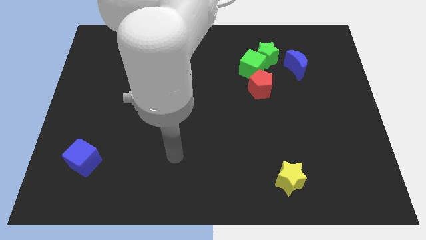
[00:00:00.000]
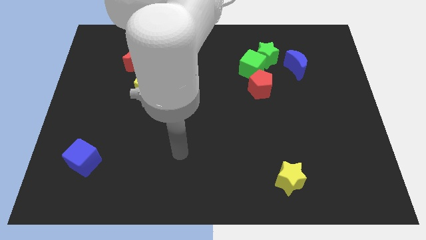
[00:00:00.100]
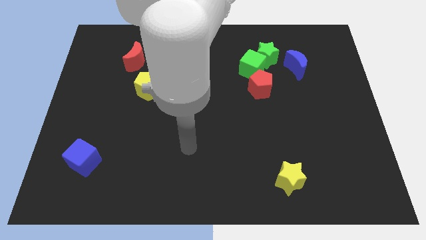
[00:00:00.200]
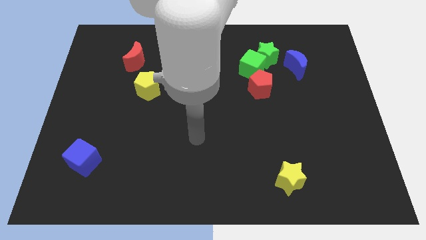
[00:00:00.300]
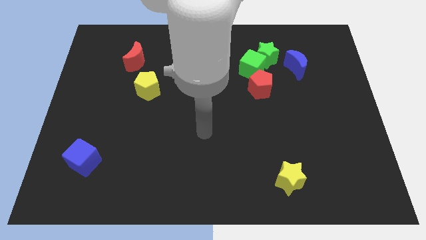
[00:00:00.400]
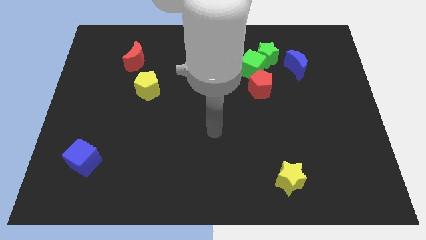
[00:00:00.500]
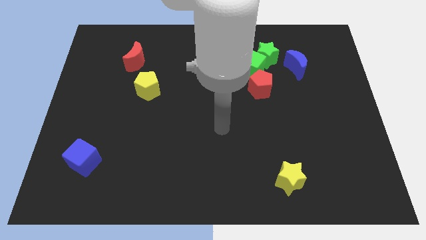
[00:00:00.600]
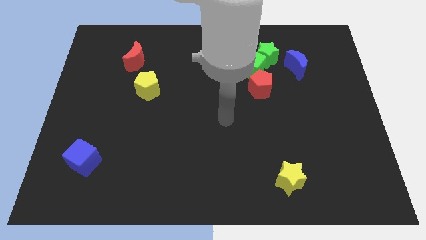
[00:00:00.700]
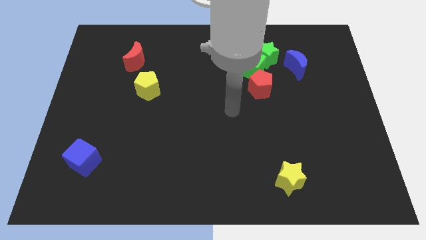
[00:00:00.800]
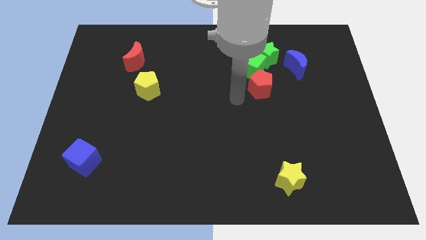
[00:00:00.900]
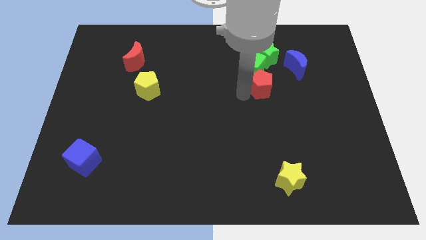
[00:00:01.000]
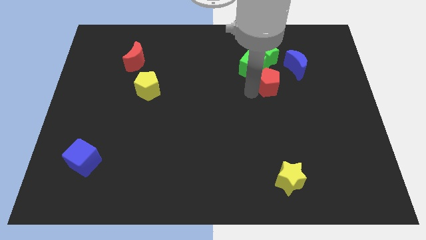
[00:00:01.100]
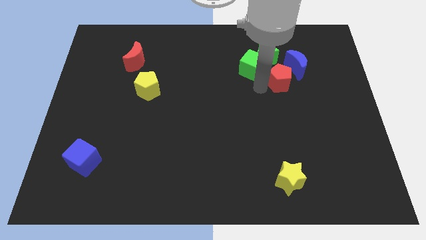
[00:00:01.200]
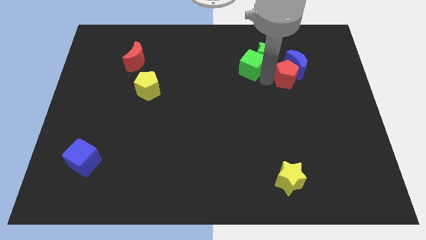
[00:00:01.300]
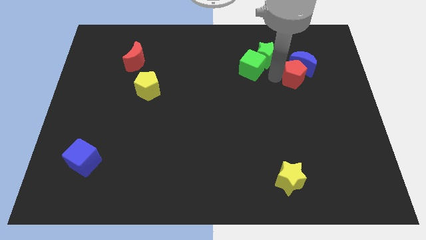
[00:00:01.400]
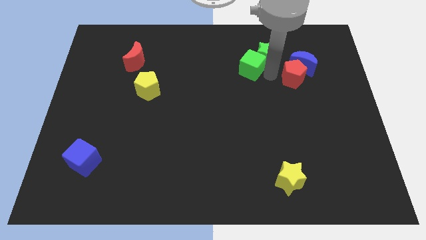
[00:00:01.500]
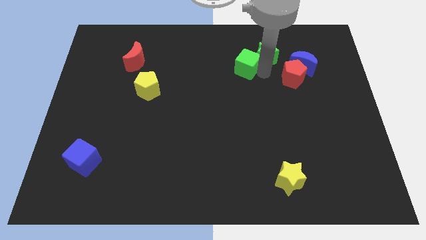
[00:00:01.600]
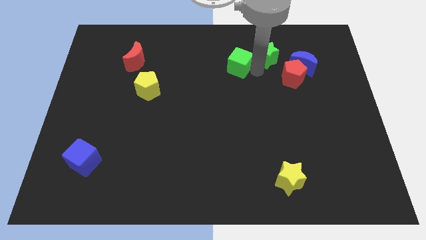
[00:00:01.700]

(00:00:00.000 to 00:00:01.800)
pull the green cube apart from the green star and red pentagon

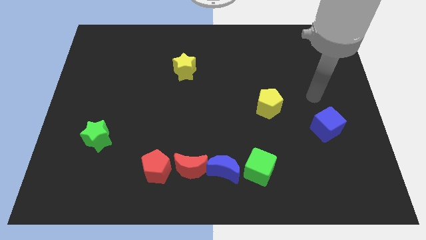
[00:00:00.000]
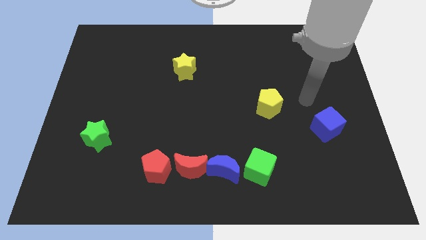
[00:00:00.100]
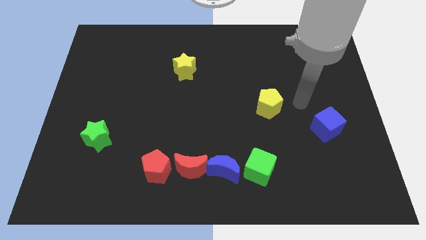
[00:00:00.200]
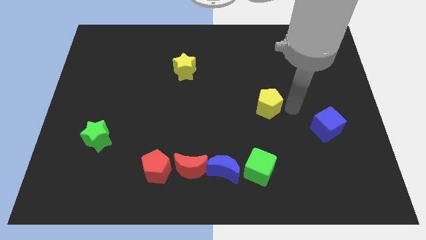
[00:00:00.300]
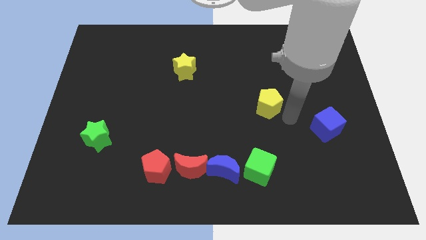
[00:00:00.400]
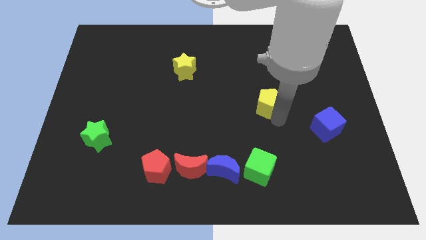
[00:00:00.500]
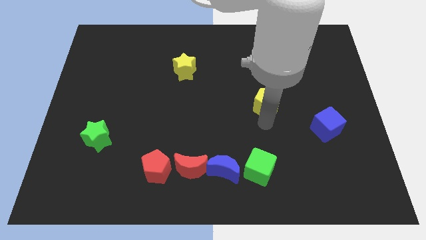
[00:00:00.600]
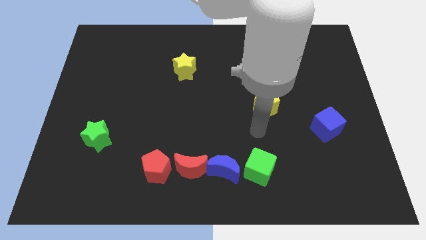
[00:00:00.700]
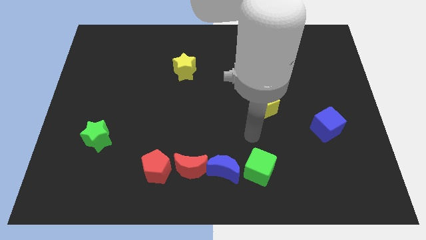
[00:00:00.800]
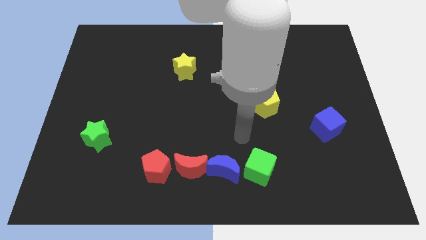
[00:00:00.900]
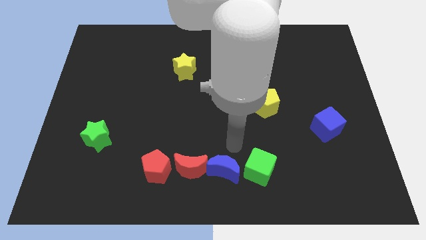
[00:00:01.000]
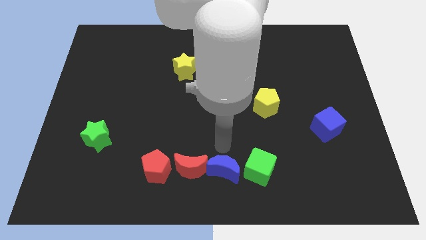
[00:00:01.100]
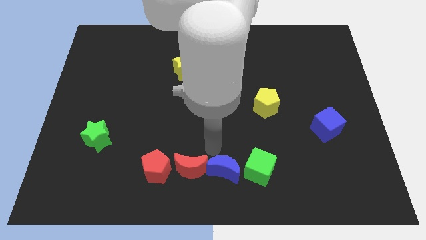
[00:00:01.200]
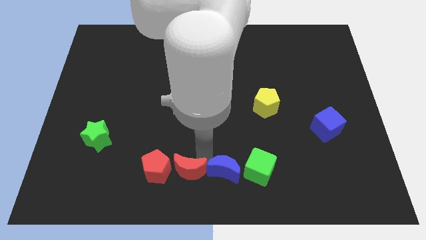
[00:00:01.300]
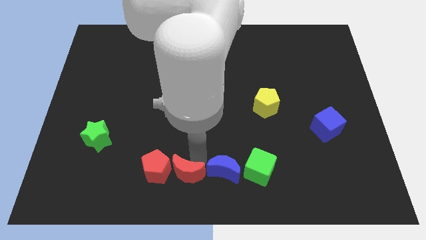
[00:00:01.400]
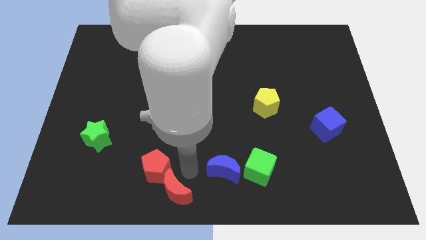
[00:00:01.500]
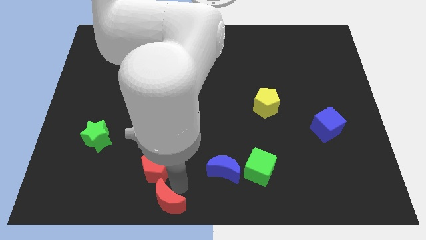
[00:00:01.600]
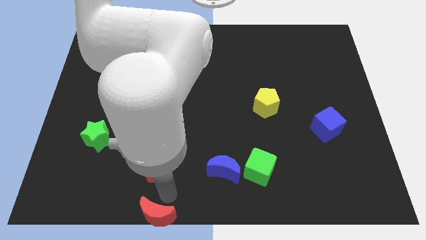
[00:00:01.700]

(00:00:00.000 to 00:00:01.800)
pull the red pentagon apart from the red moon

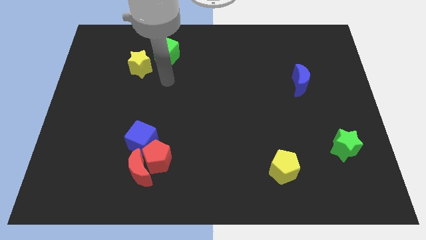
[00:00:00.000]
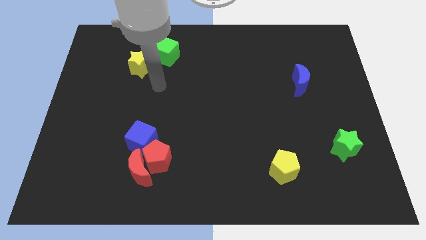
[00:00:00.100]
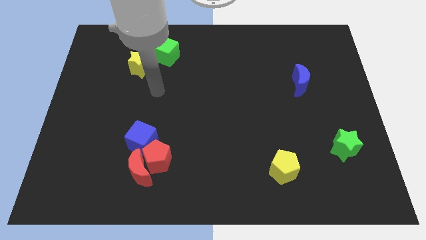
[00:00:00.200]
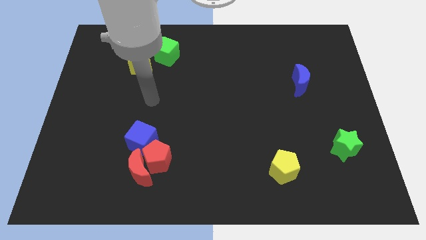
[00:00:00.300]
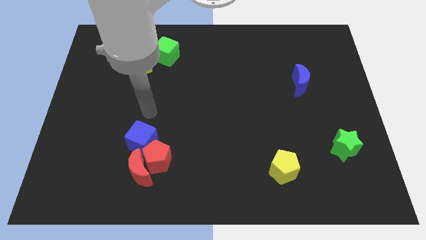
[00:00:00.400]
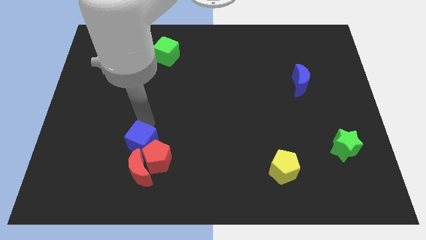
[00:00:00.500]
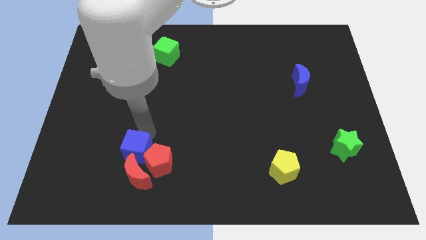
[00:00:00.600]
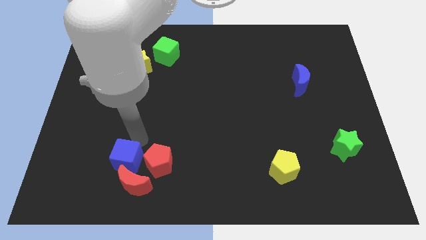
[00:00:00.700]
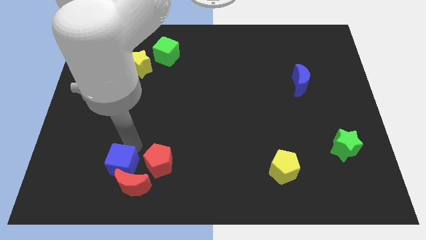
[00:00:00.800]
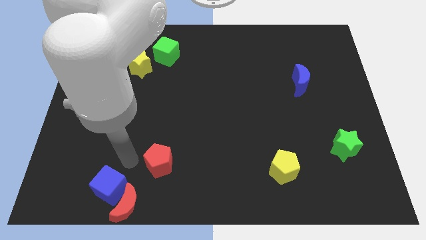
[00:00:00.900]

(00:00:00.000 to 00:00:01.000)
pull the red pentagon apart from the red moon and blue cube

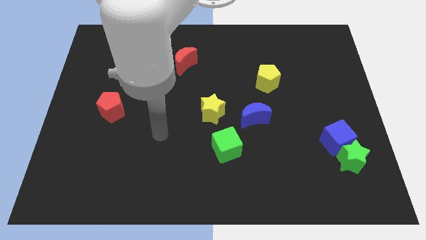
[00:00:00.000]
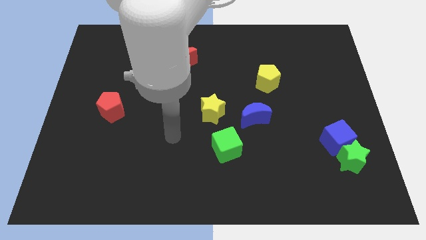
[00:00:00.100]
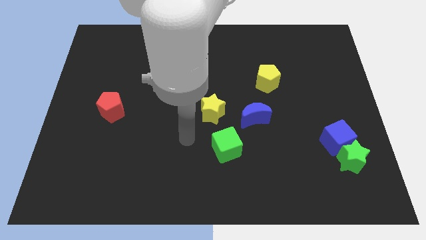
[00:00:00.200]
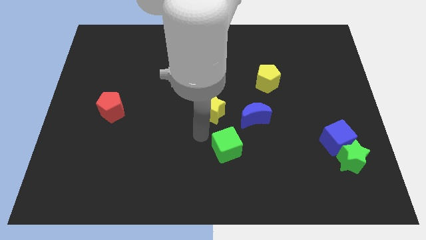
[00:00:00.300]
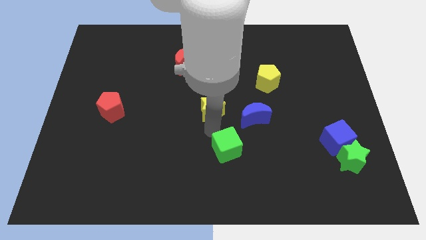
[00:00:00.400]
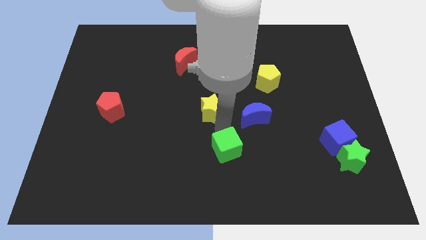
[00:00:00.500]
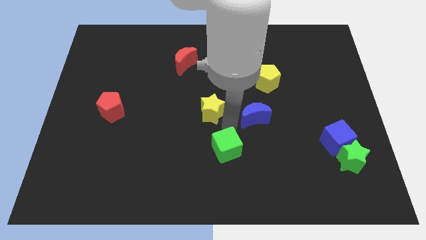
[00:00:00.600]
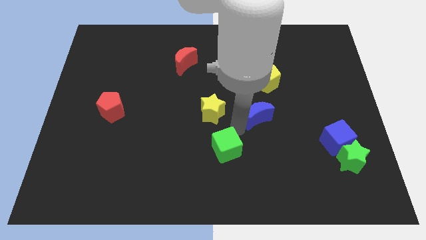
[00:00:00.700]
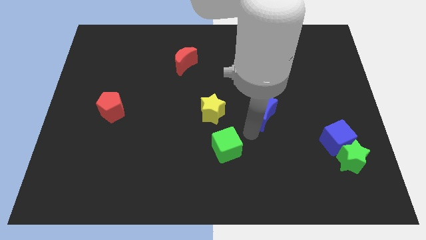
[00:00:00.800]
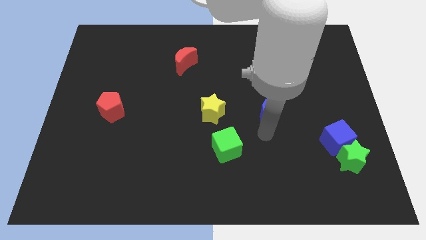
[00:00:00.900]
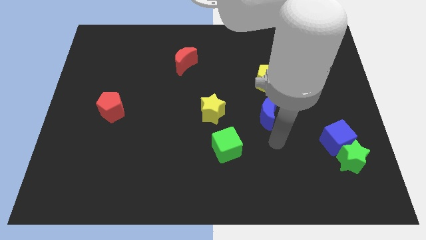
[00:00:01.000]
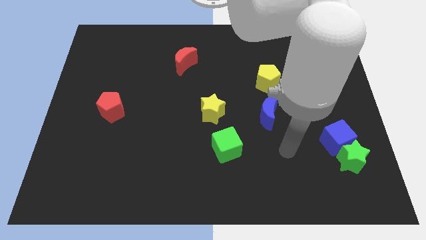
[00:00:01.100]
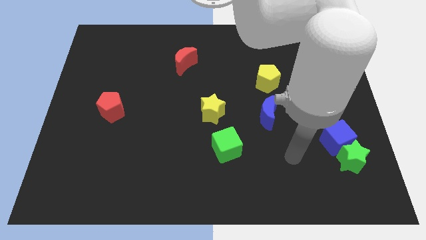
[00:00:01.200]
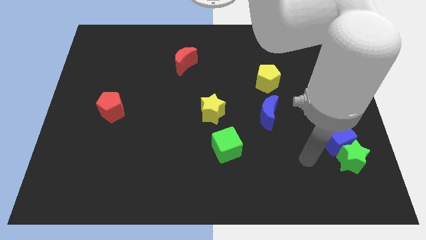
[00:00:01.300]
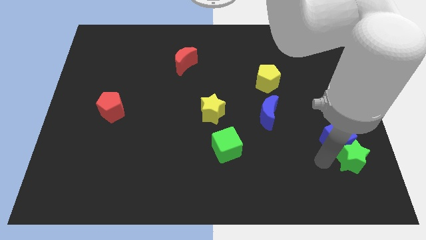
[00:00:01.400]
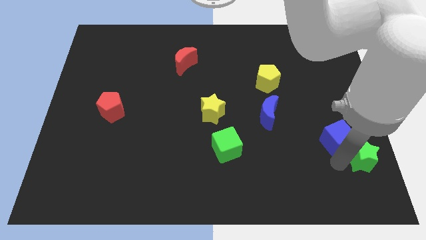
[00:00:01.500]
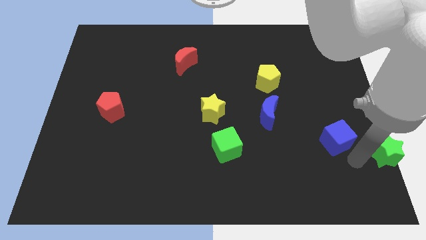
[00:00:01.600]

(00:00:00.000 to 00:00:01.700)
move the blue cube away from the green star

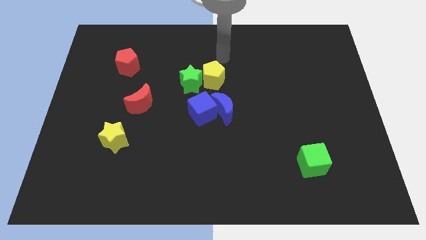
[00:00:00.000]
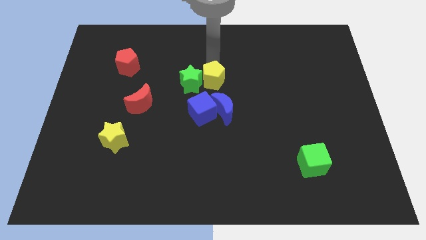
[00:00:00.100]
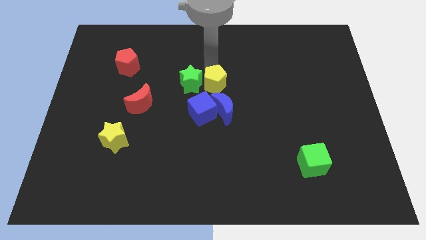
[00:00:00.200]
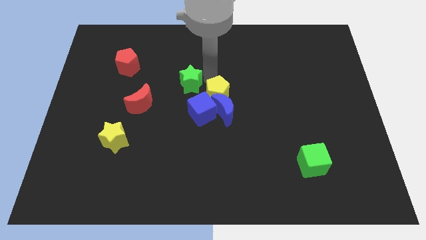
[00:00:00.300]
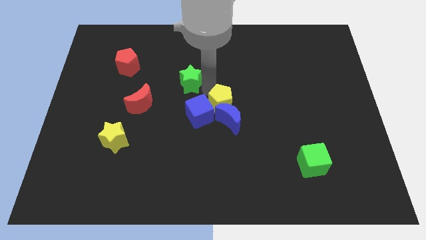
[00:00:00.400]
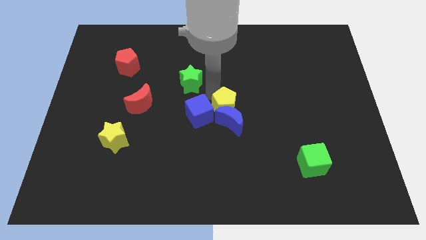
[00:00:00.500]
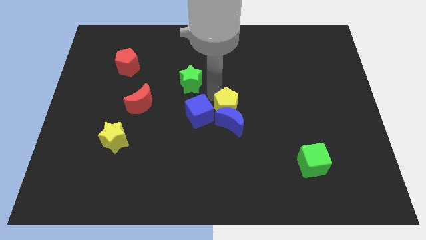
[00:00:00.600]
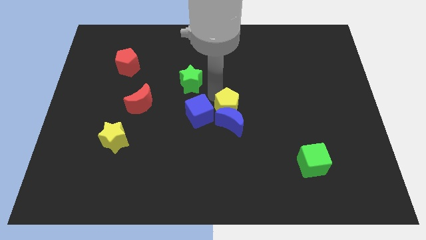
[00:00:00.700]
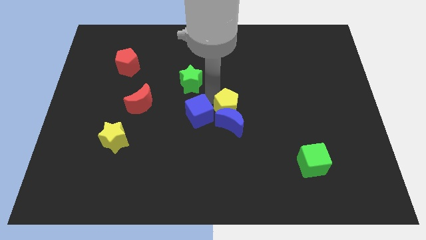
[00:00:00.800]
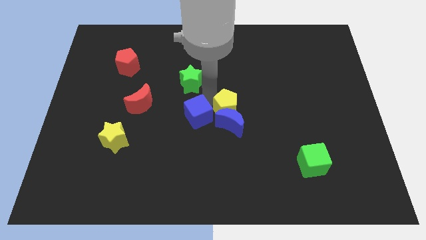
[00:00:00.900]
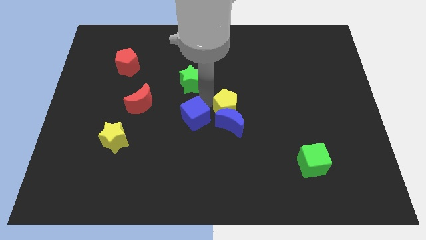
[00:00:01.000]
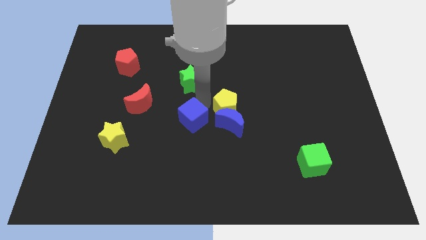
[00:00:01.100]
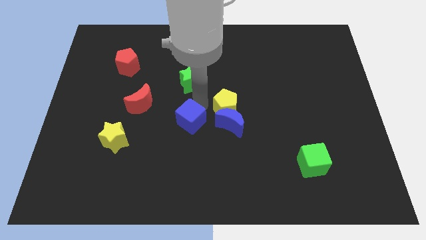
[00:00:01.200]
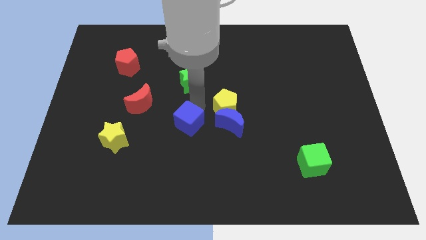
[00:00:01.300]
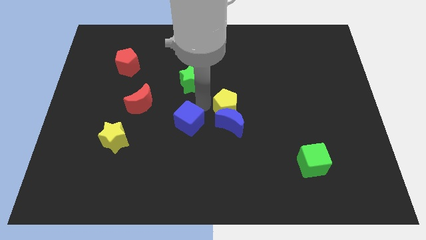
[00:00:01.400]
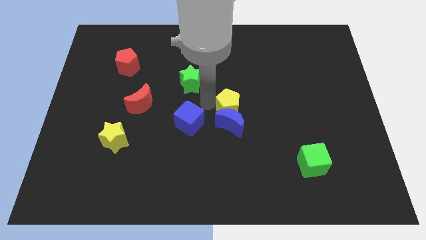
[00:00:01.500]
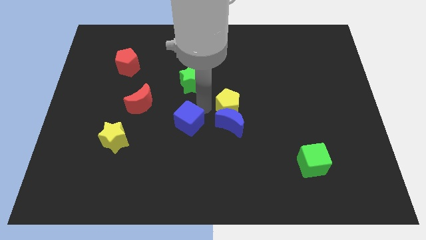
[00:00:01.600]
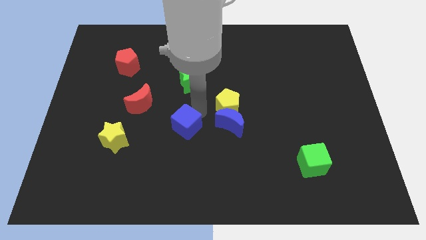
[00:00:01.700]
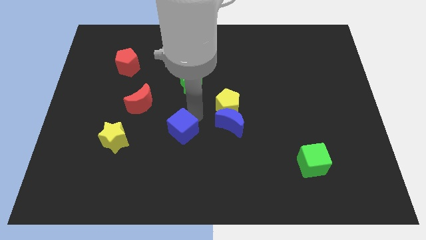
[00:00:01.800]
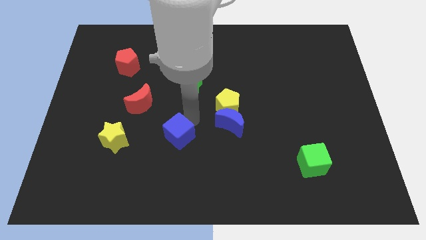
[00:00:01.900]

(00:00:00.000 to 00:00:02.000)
move the blue cube away from the blue moon and green star

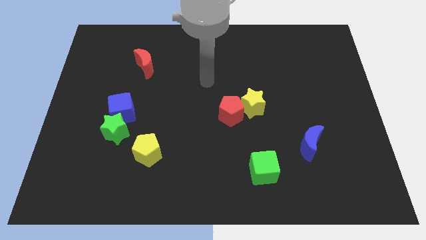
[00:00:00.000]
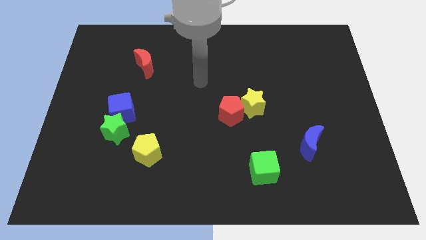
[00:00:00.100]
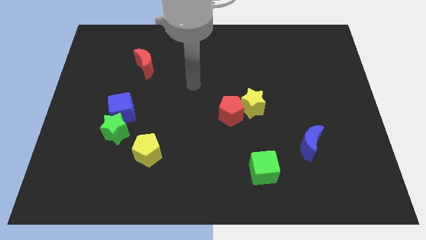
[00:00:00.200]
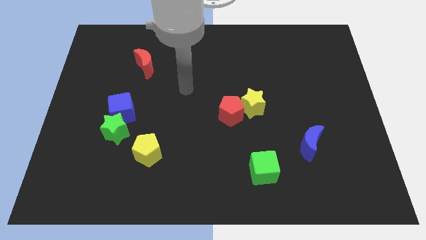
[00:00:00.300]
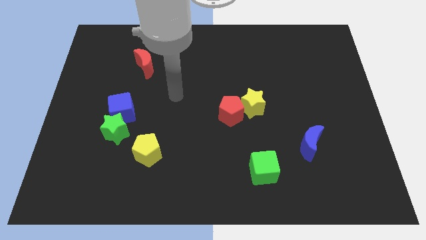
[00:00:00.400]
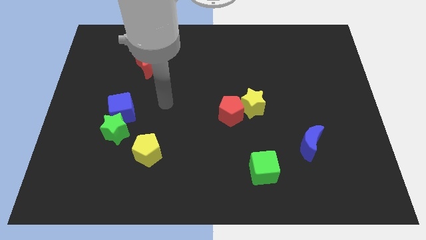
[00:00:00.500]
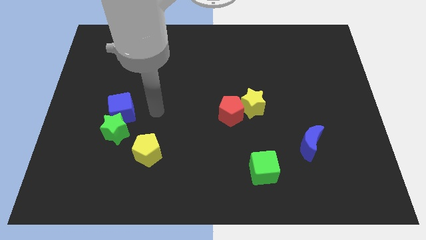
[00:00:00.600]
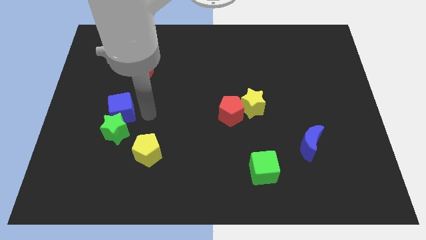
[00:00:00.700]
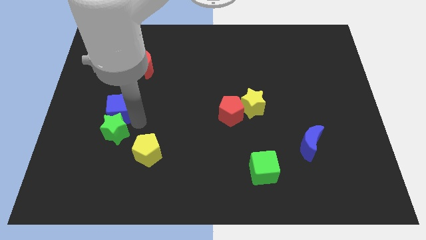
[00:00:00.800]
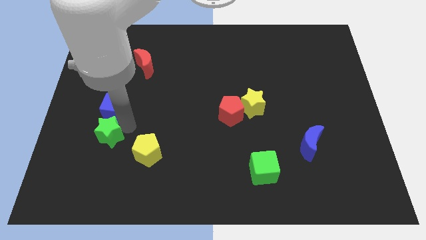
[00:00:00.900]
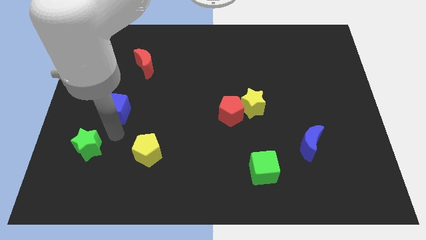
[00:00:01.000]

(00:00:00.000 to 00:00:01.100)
pull the blue cube apart from the green star
